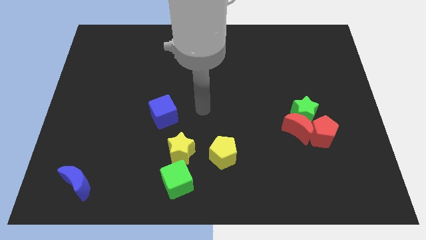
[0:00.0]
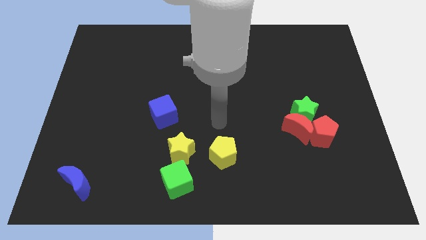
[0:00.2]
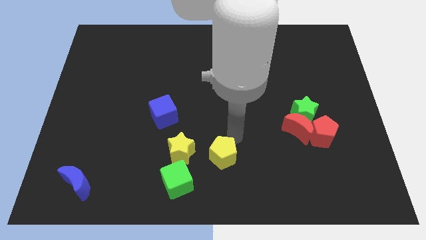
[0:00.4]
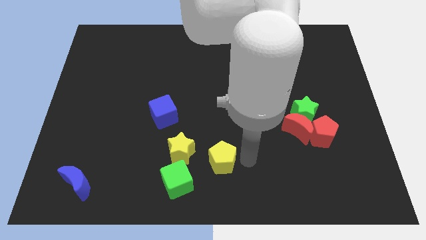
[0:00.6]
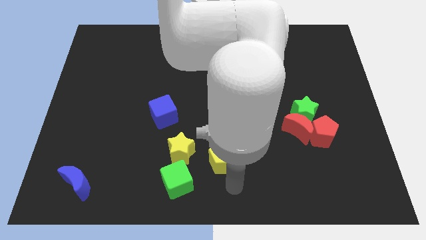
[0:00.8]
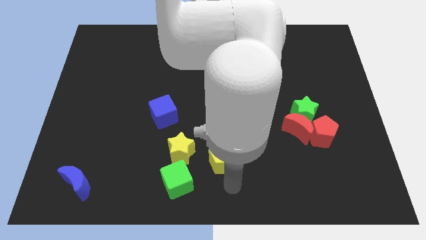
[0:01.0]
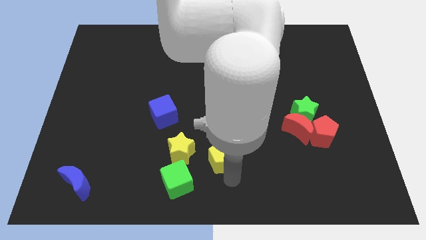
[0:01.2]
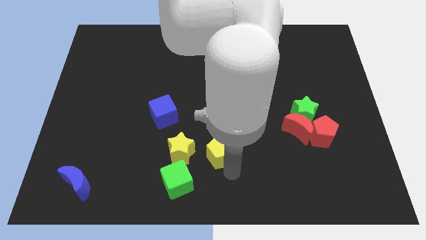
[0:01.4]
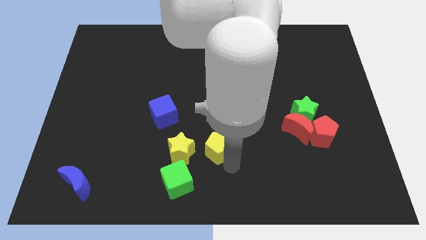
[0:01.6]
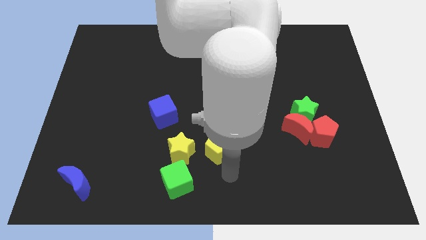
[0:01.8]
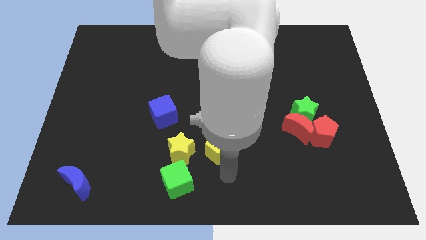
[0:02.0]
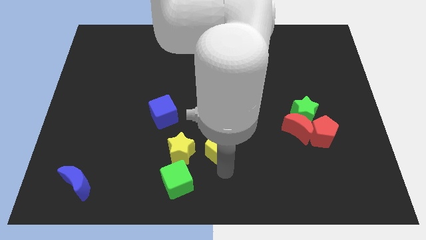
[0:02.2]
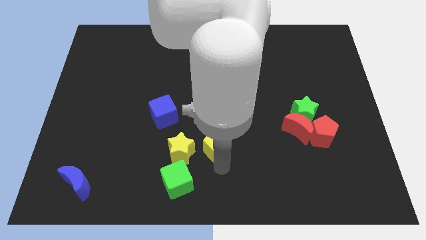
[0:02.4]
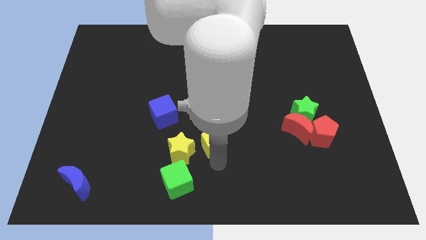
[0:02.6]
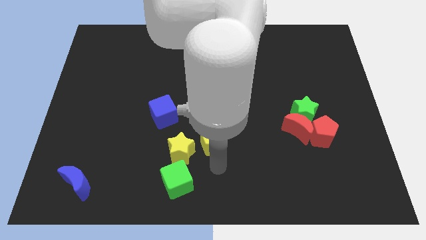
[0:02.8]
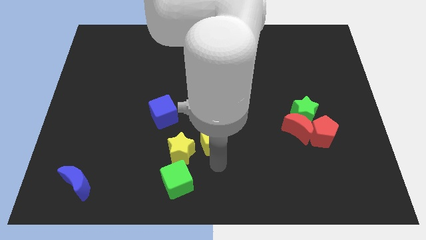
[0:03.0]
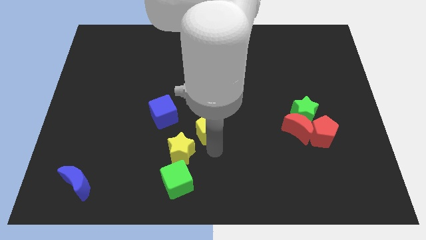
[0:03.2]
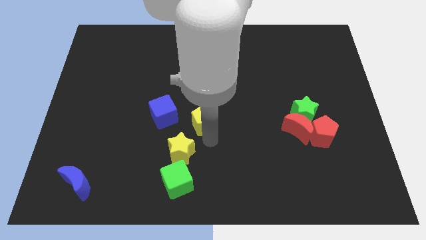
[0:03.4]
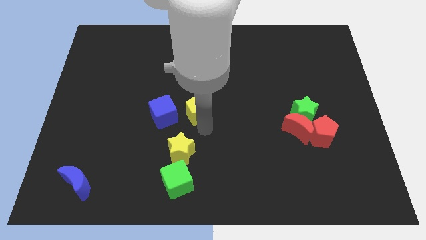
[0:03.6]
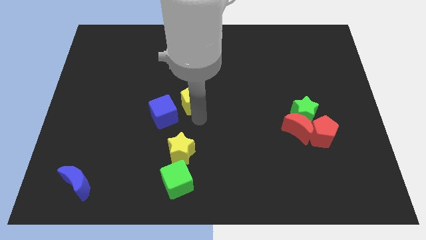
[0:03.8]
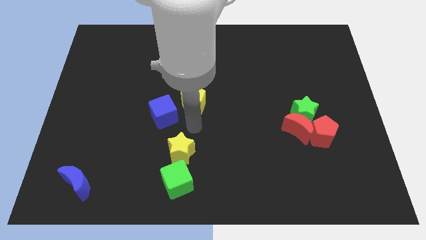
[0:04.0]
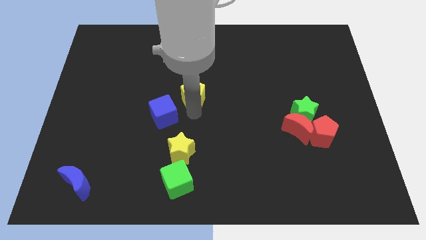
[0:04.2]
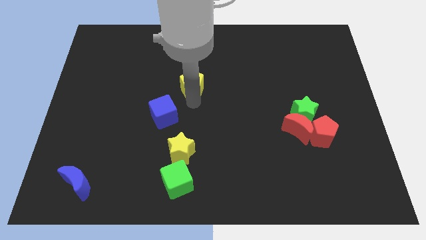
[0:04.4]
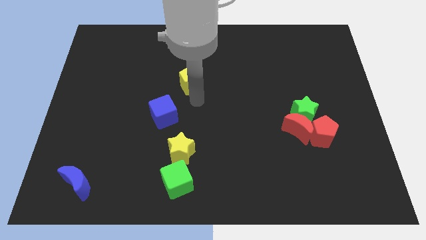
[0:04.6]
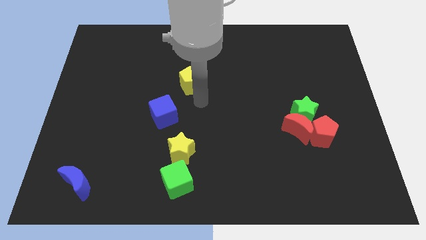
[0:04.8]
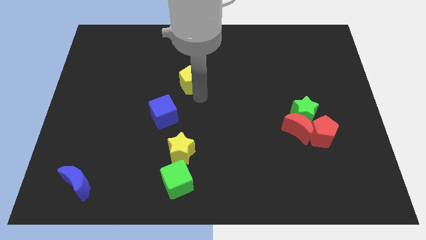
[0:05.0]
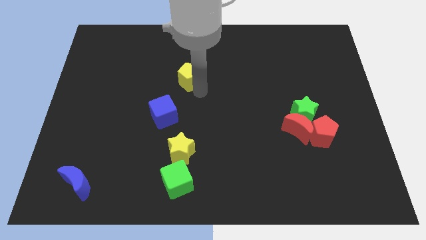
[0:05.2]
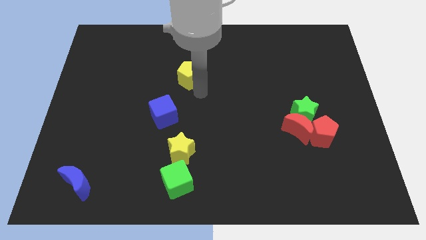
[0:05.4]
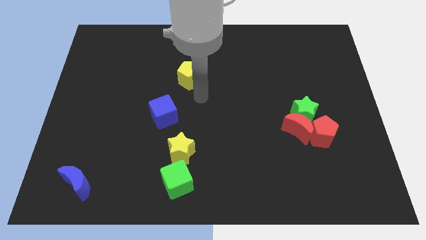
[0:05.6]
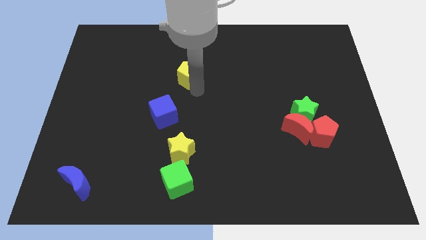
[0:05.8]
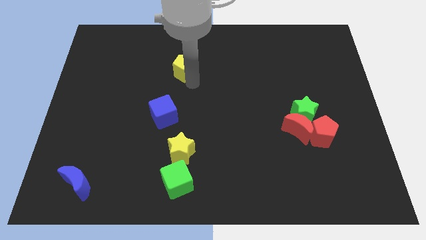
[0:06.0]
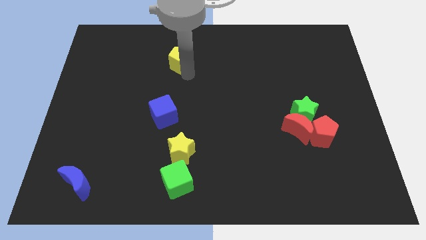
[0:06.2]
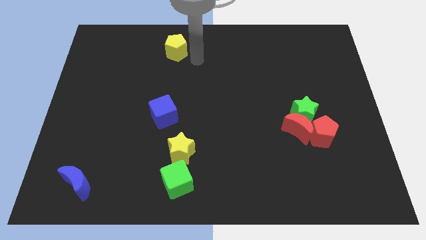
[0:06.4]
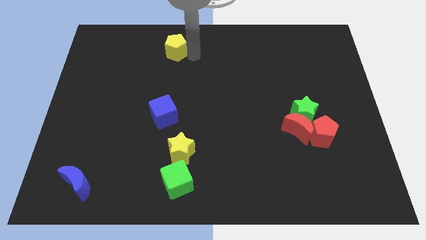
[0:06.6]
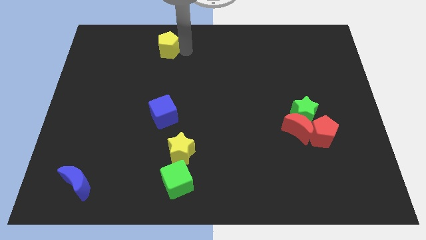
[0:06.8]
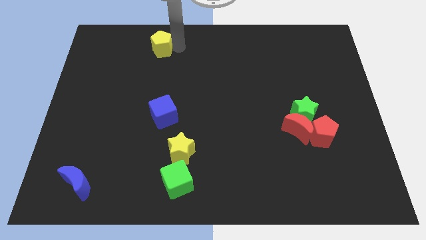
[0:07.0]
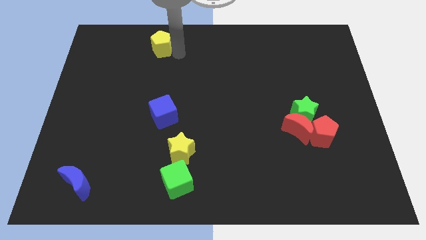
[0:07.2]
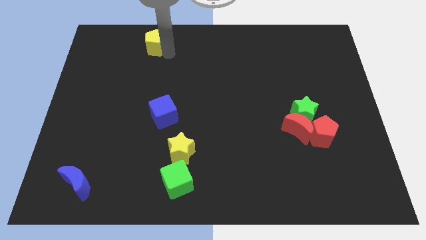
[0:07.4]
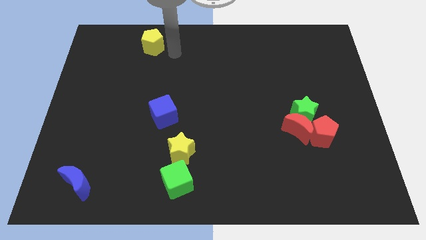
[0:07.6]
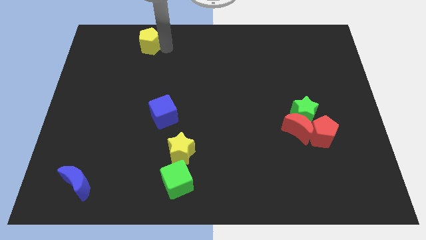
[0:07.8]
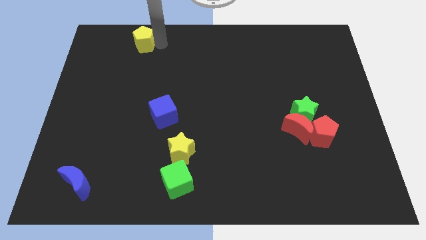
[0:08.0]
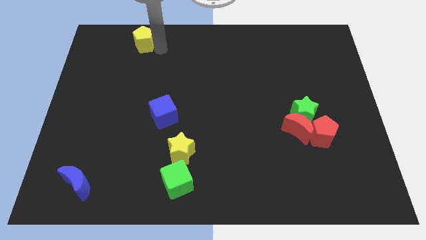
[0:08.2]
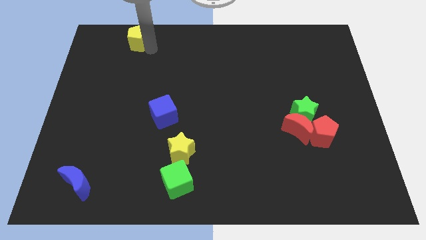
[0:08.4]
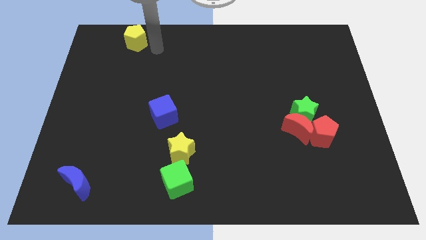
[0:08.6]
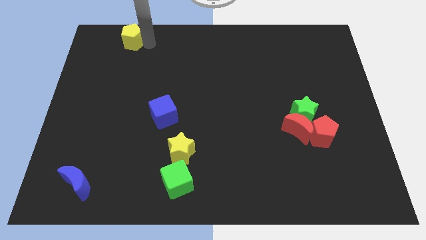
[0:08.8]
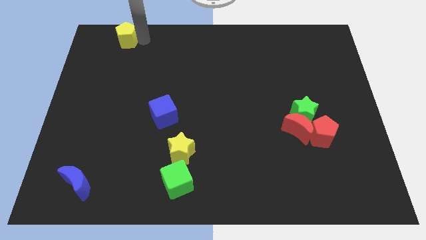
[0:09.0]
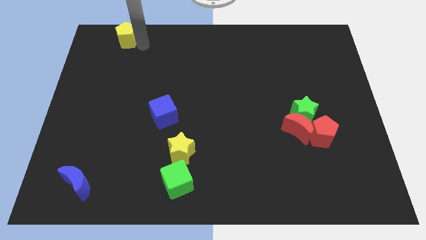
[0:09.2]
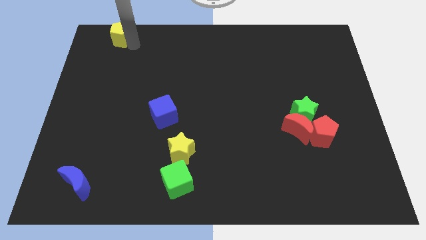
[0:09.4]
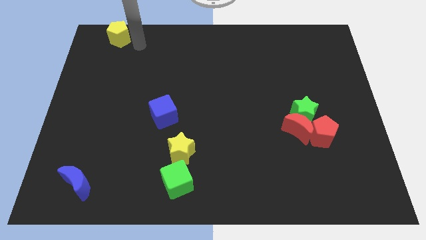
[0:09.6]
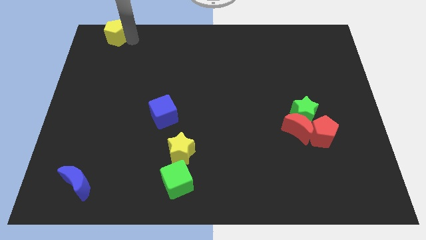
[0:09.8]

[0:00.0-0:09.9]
put the yellow pentagon to the top left of the board

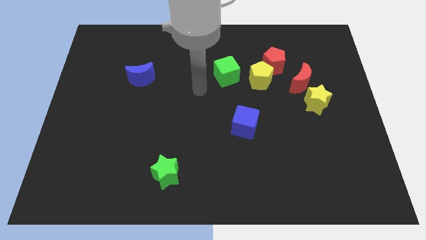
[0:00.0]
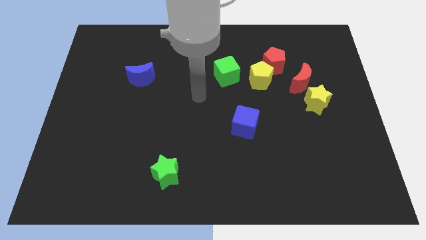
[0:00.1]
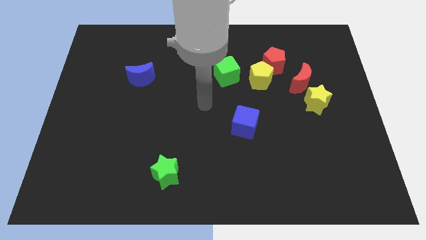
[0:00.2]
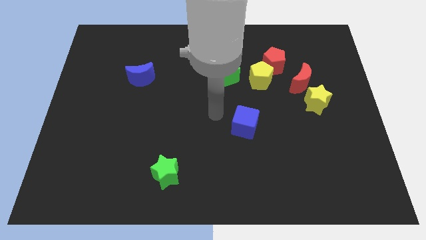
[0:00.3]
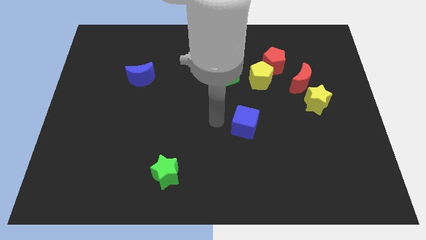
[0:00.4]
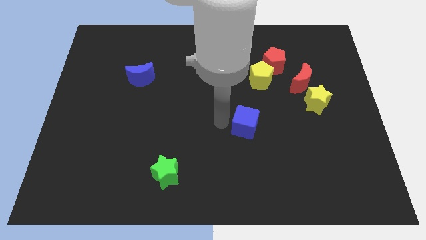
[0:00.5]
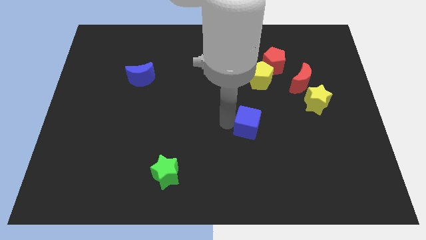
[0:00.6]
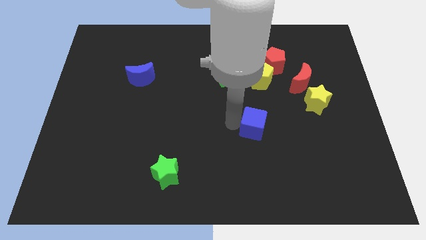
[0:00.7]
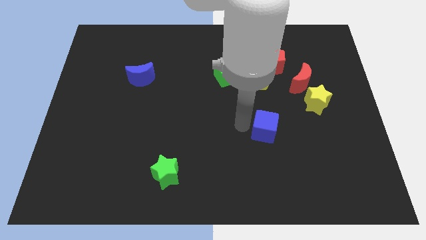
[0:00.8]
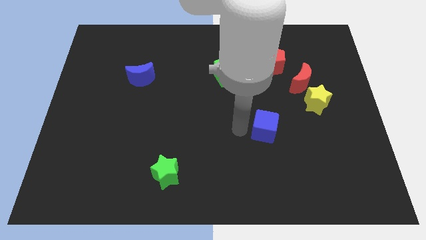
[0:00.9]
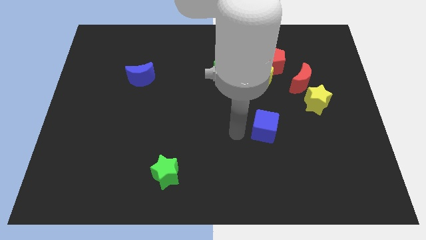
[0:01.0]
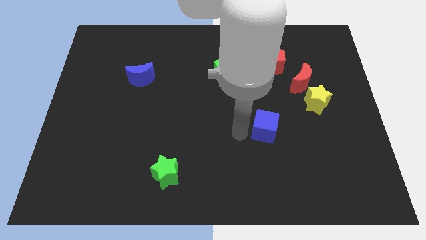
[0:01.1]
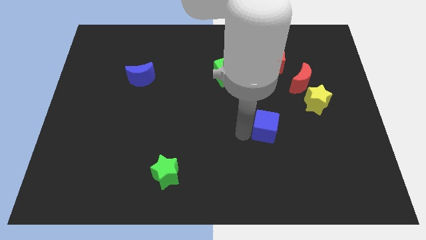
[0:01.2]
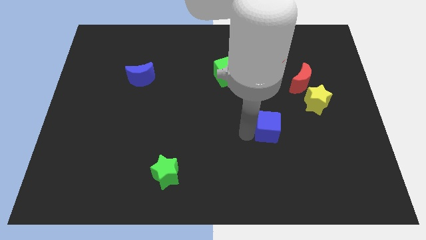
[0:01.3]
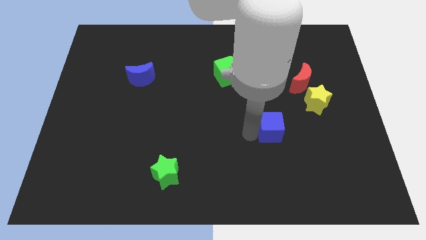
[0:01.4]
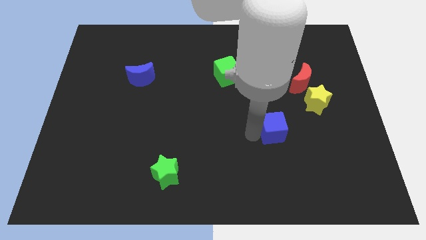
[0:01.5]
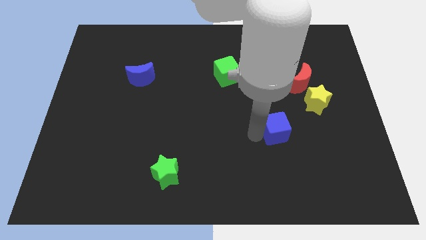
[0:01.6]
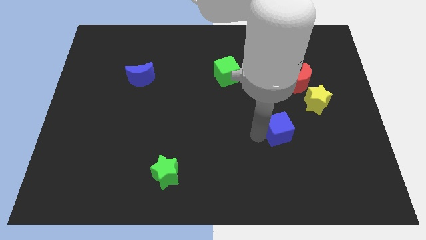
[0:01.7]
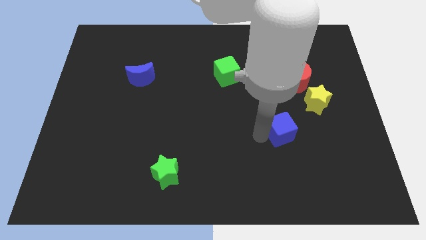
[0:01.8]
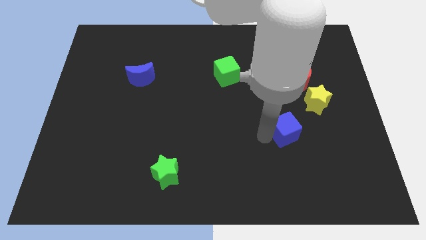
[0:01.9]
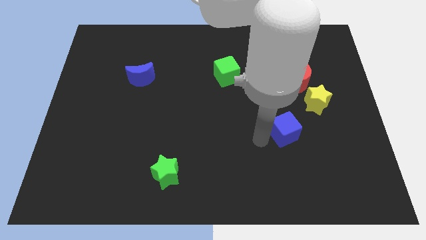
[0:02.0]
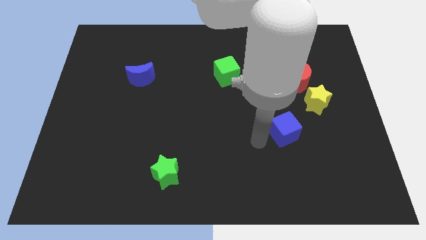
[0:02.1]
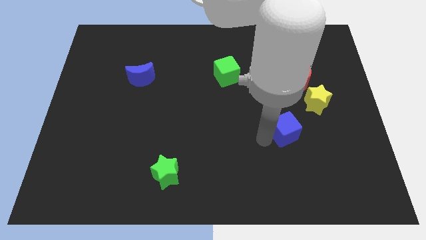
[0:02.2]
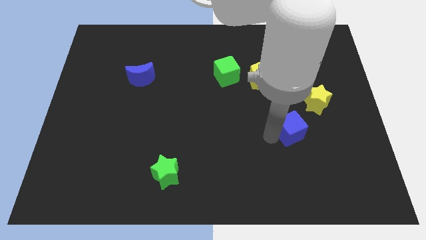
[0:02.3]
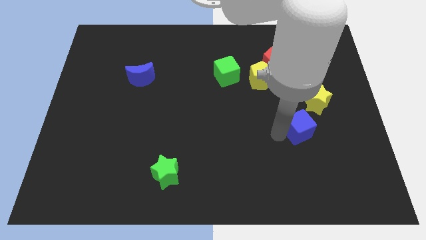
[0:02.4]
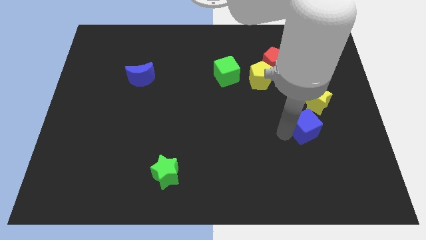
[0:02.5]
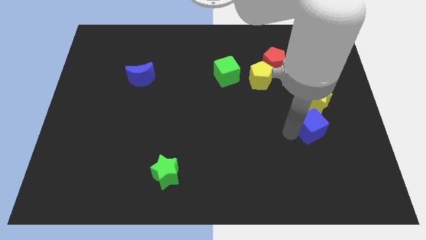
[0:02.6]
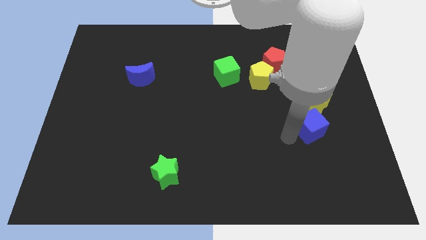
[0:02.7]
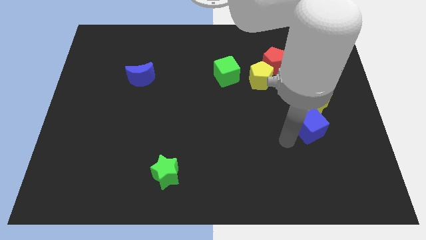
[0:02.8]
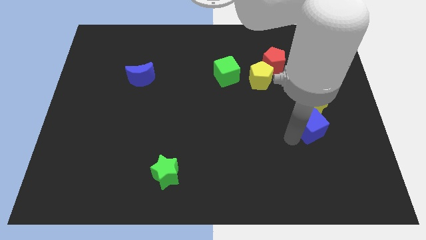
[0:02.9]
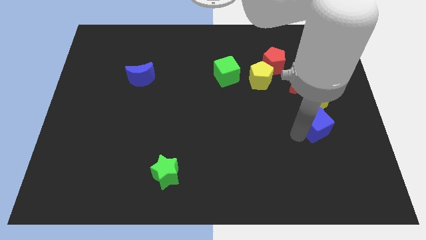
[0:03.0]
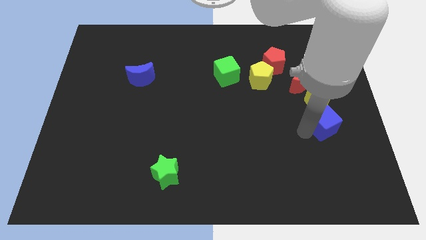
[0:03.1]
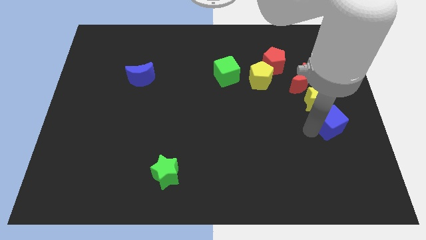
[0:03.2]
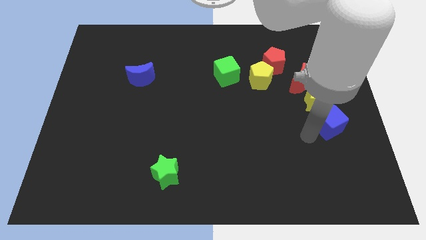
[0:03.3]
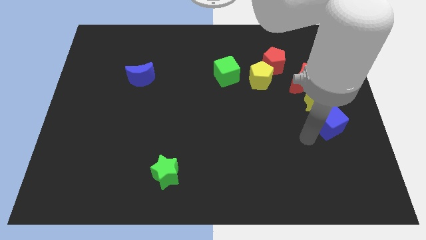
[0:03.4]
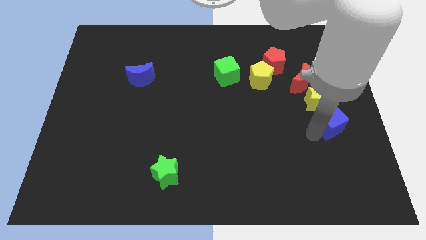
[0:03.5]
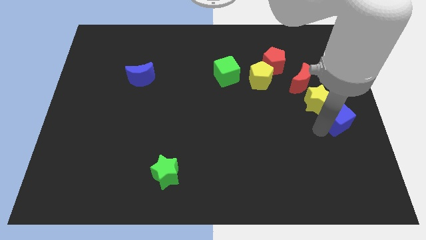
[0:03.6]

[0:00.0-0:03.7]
push the blue cube to the right side of the board
